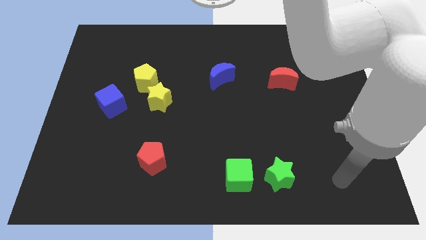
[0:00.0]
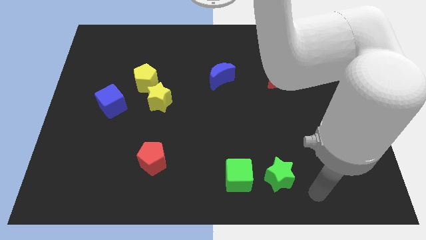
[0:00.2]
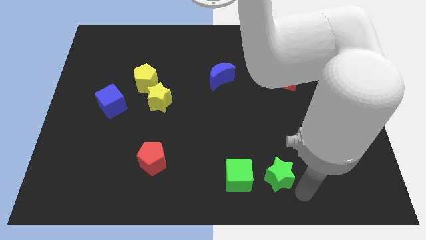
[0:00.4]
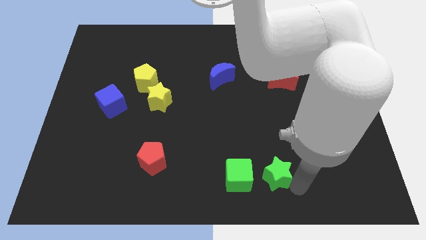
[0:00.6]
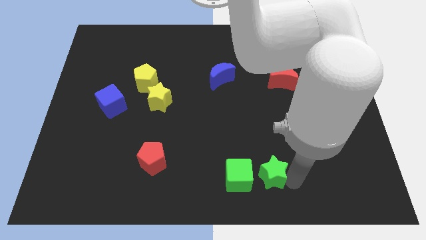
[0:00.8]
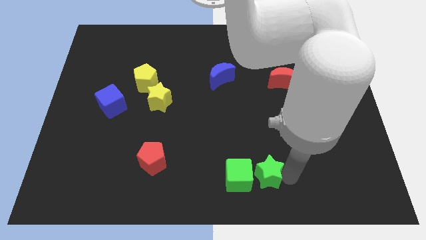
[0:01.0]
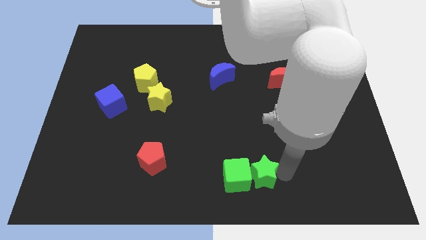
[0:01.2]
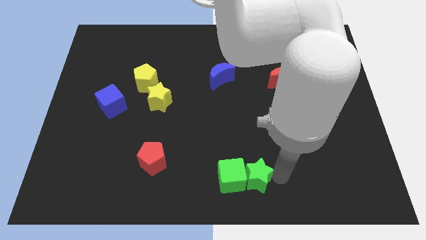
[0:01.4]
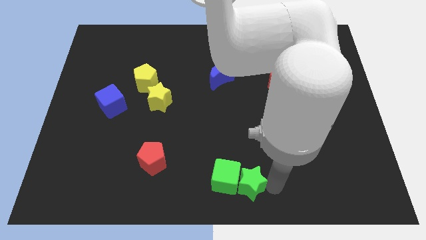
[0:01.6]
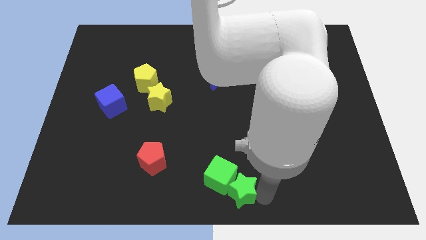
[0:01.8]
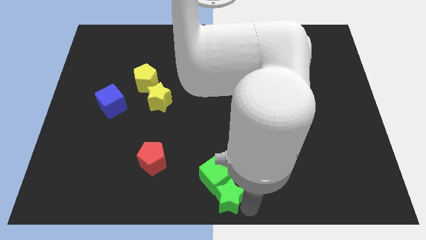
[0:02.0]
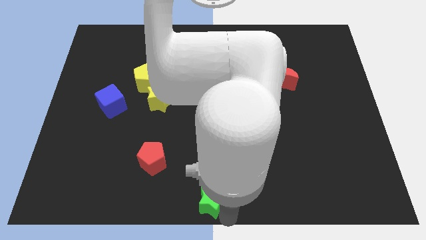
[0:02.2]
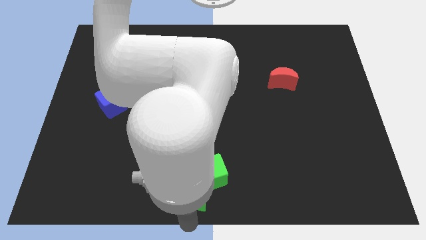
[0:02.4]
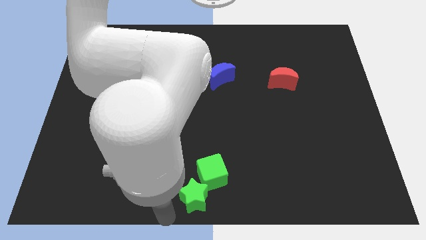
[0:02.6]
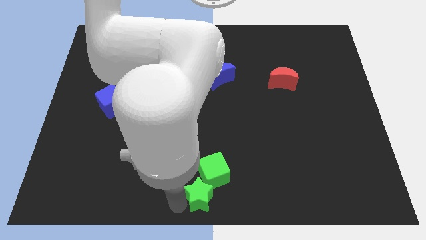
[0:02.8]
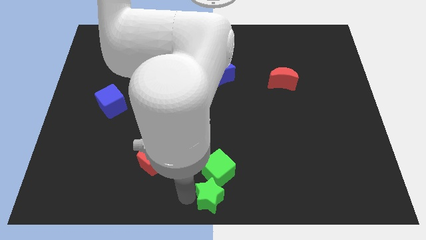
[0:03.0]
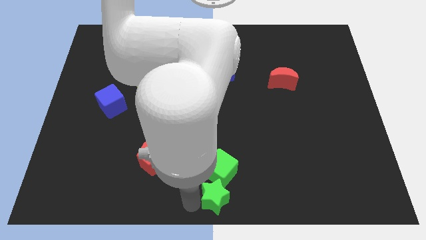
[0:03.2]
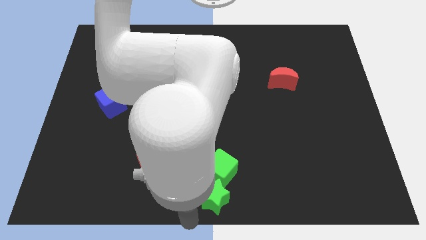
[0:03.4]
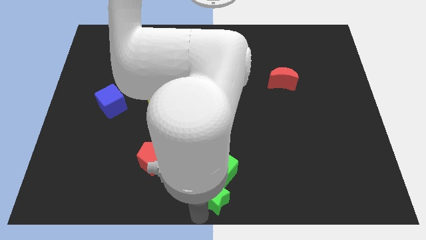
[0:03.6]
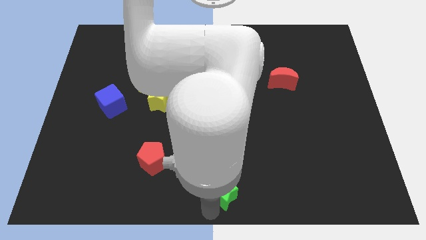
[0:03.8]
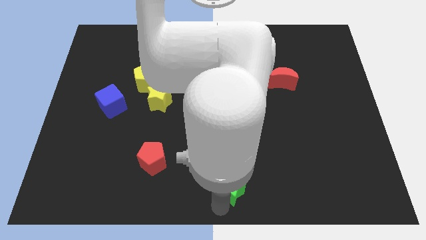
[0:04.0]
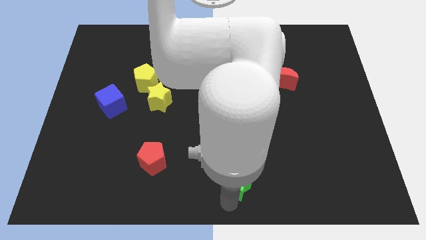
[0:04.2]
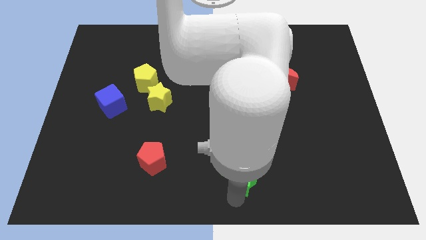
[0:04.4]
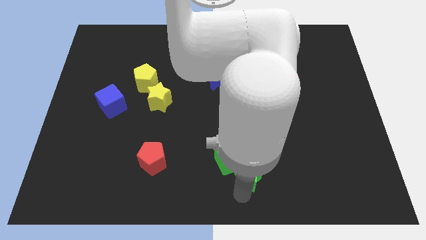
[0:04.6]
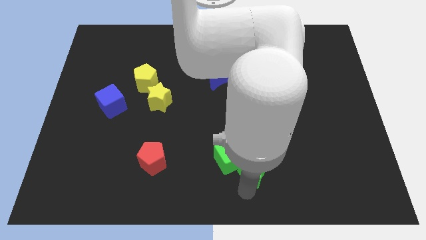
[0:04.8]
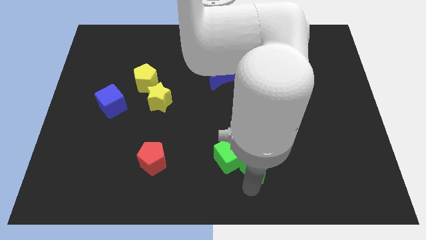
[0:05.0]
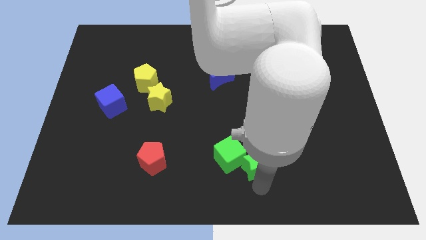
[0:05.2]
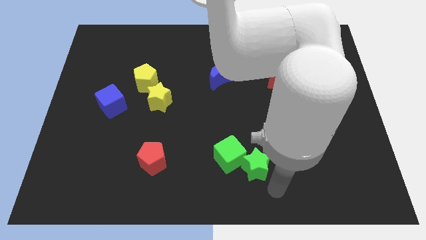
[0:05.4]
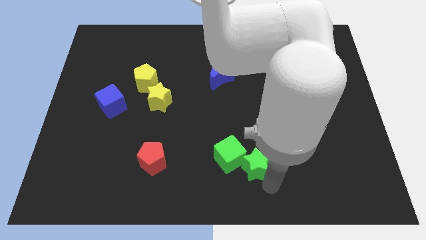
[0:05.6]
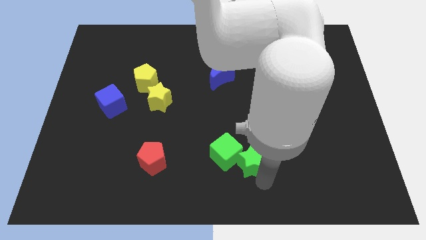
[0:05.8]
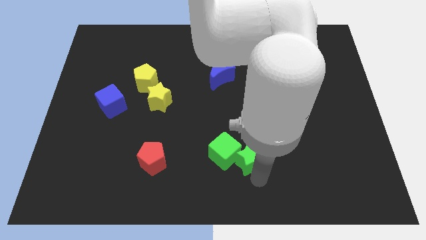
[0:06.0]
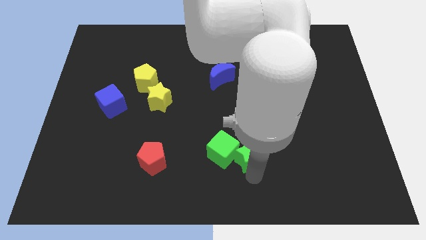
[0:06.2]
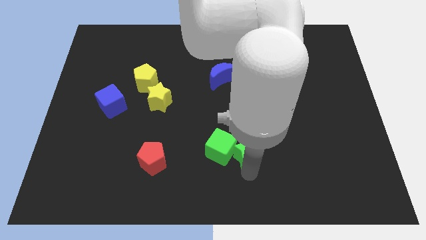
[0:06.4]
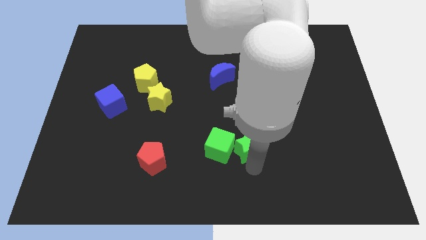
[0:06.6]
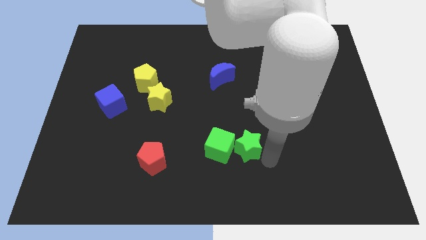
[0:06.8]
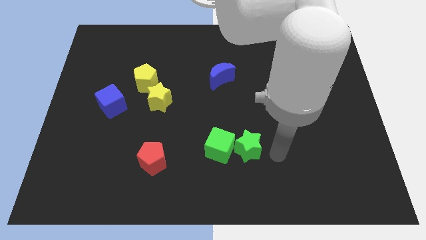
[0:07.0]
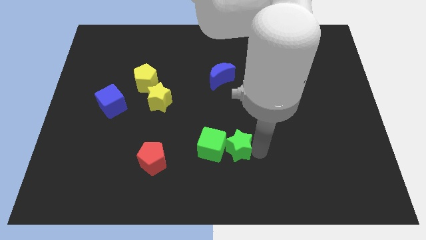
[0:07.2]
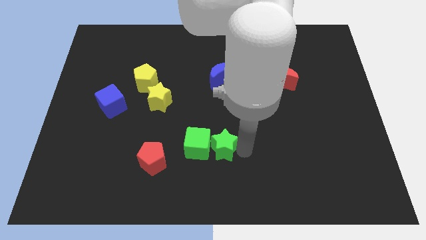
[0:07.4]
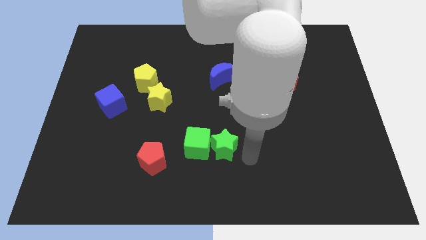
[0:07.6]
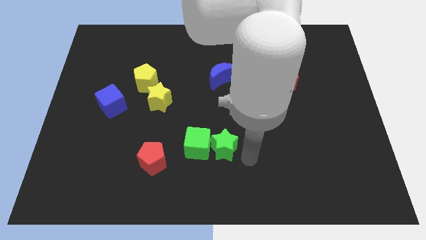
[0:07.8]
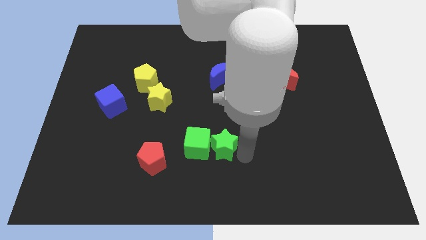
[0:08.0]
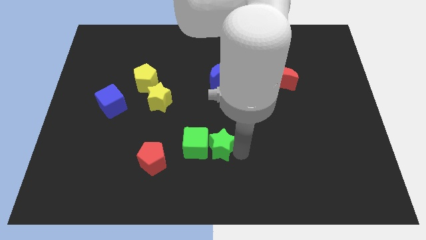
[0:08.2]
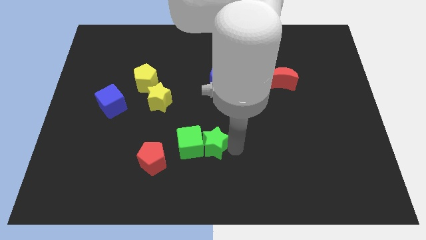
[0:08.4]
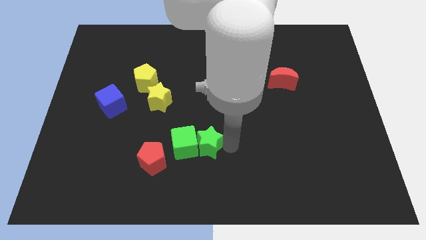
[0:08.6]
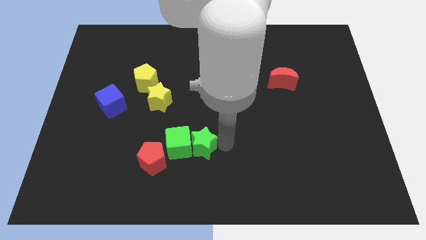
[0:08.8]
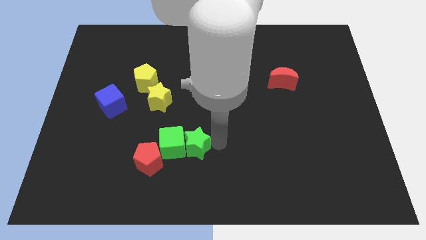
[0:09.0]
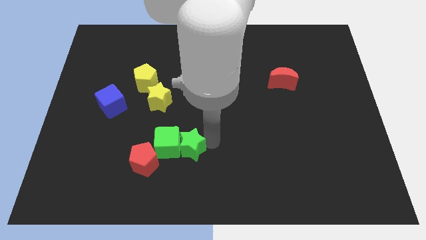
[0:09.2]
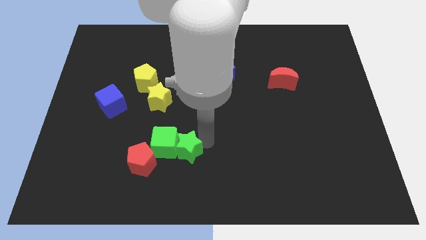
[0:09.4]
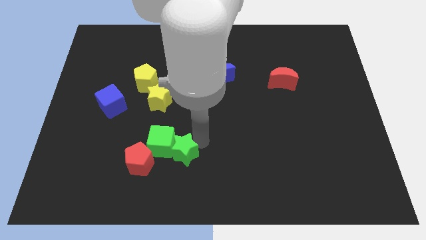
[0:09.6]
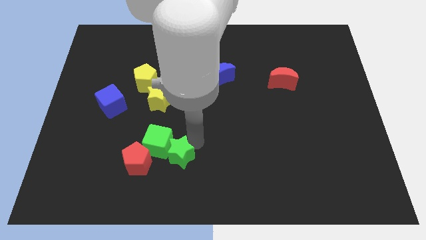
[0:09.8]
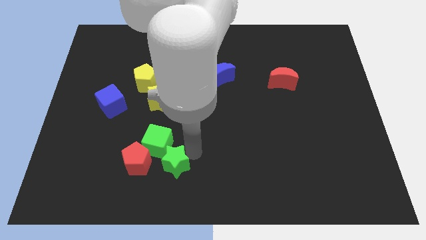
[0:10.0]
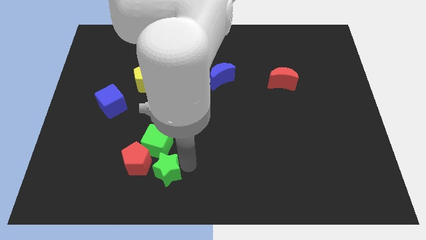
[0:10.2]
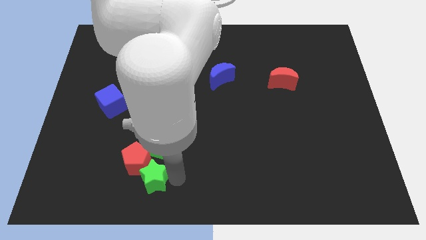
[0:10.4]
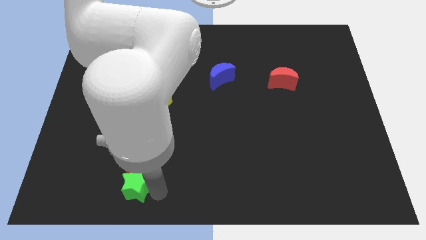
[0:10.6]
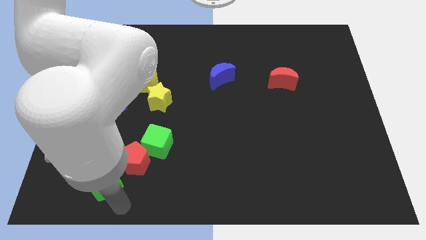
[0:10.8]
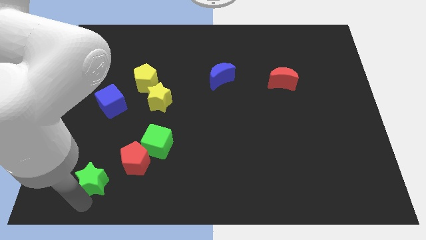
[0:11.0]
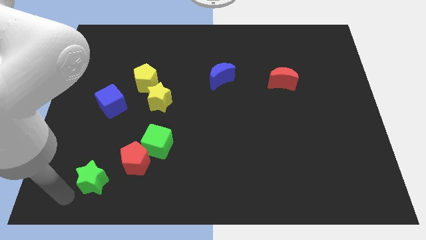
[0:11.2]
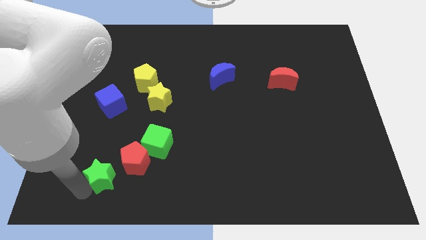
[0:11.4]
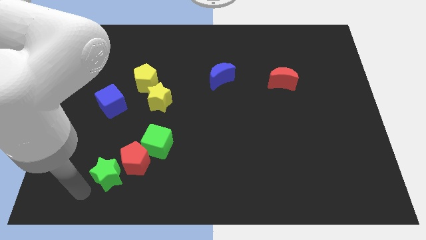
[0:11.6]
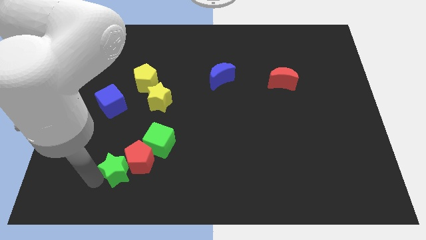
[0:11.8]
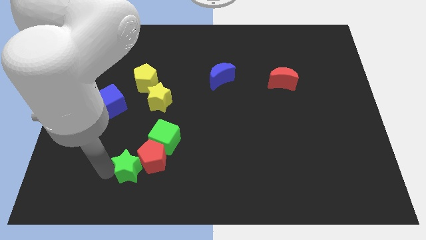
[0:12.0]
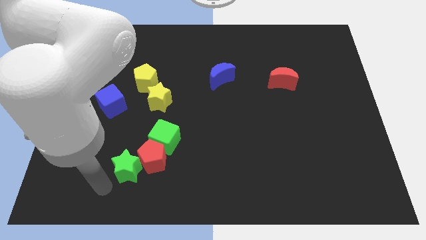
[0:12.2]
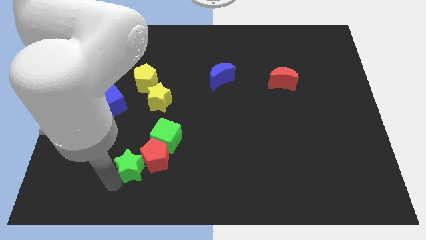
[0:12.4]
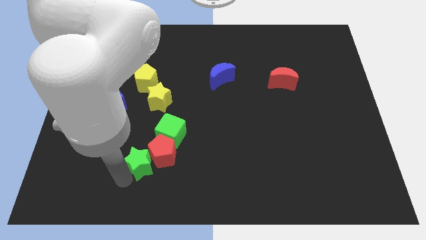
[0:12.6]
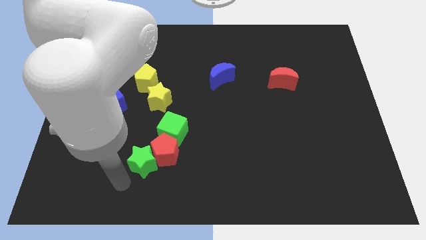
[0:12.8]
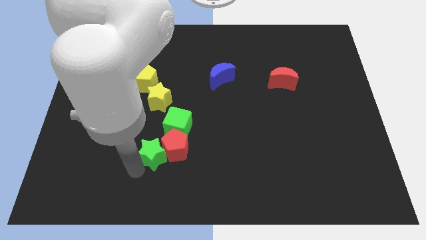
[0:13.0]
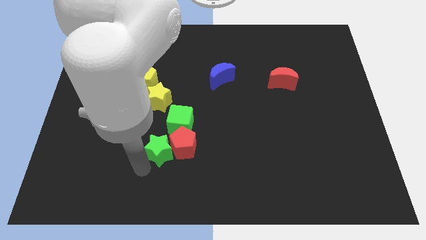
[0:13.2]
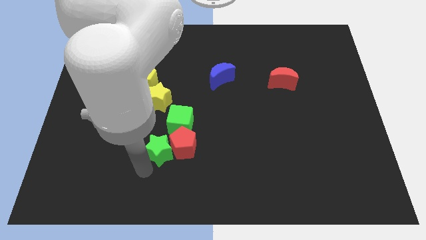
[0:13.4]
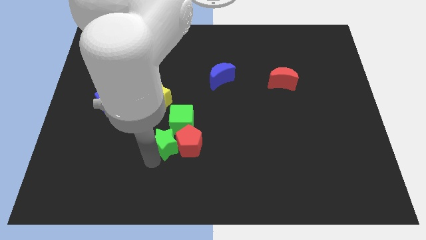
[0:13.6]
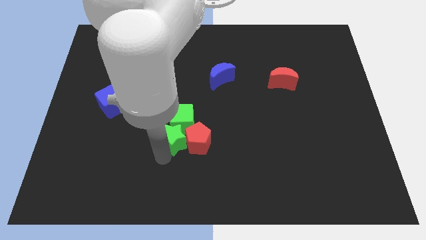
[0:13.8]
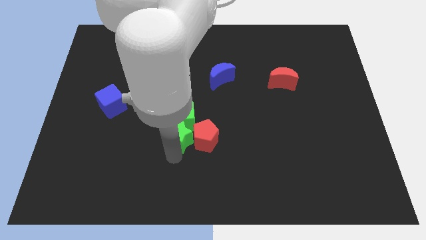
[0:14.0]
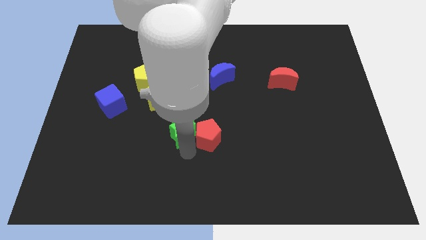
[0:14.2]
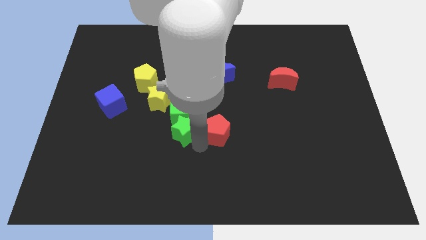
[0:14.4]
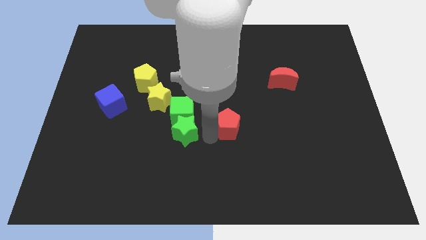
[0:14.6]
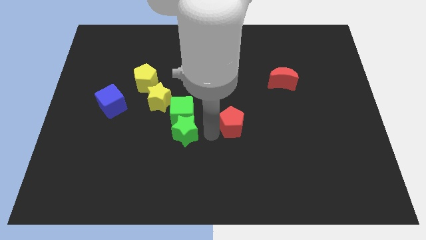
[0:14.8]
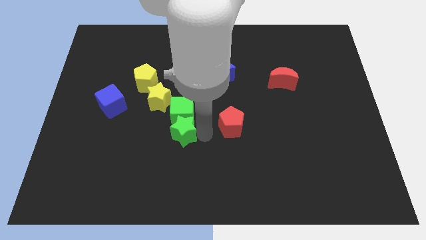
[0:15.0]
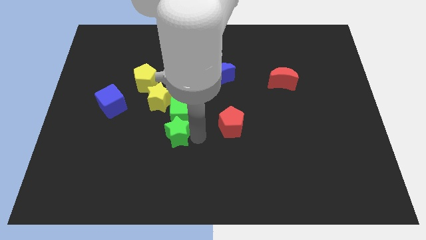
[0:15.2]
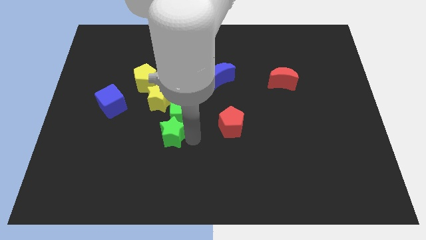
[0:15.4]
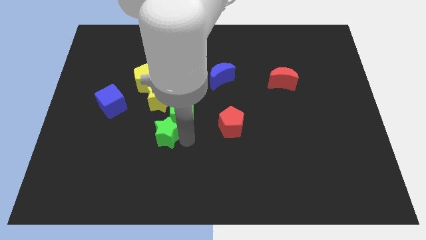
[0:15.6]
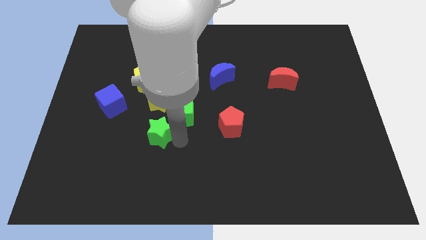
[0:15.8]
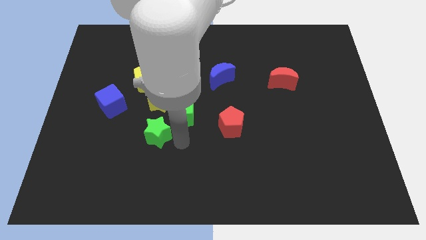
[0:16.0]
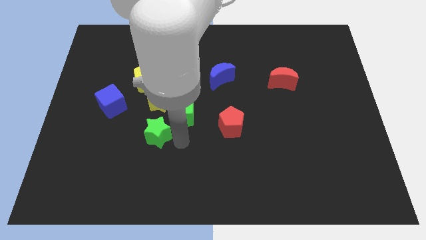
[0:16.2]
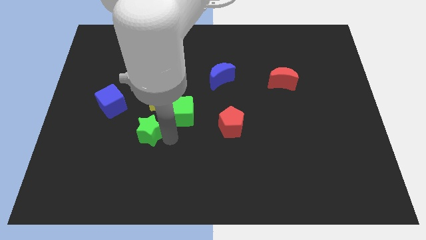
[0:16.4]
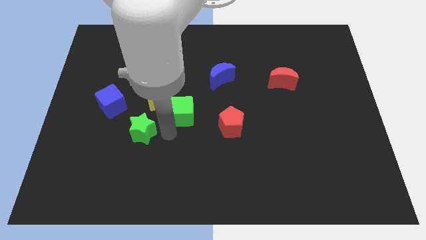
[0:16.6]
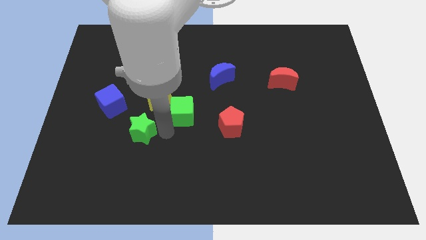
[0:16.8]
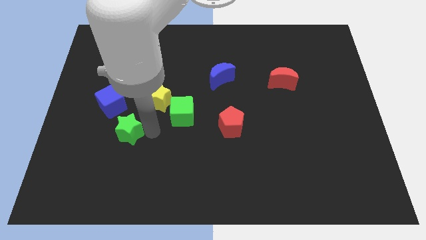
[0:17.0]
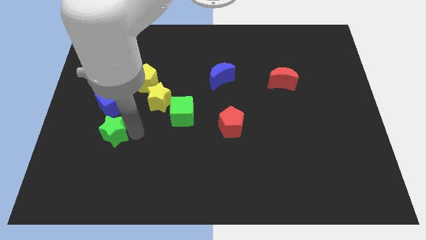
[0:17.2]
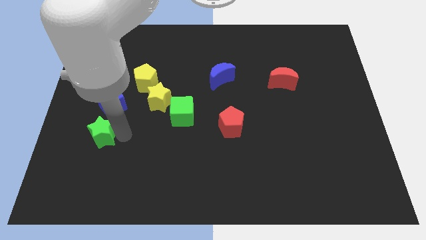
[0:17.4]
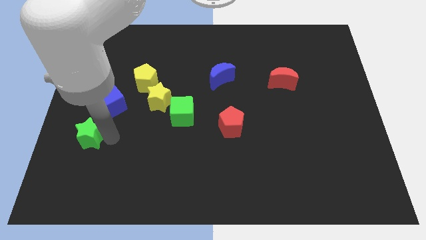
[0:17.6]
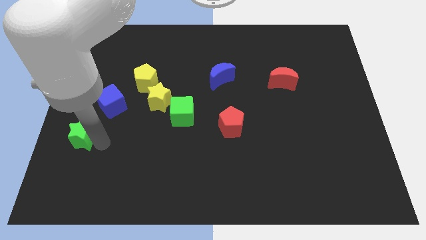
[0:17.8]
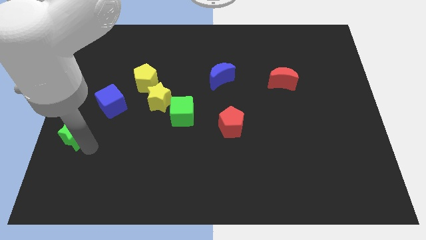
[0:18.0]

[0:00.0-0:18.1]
put the green star to the center left
